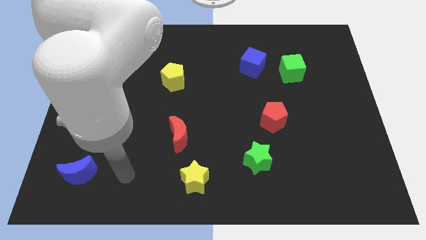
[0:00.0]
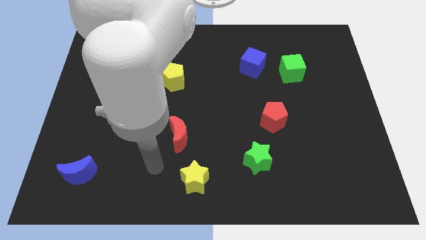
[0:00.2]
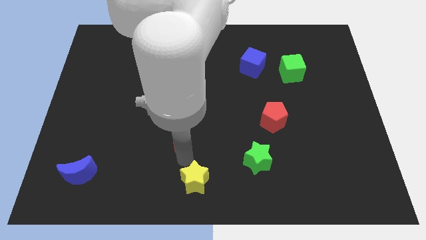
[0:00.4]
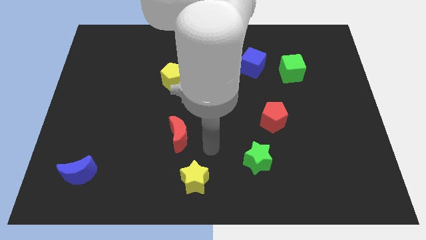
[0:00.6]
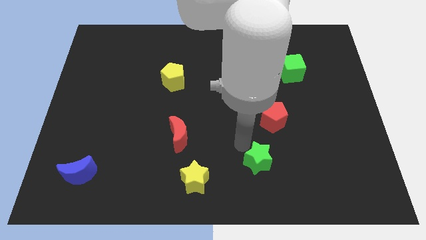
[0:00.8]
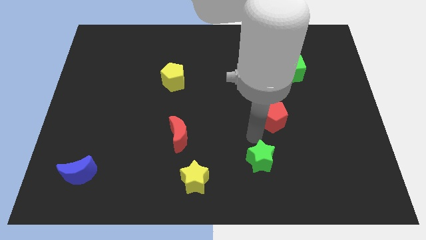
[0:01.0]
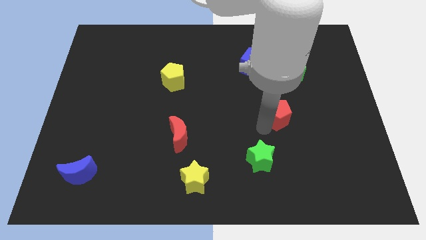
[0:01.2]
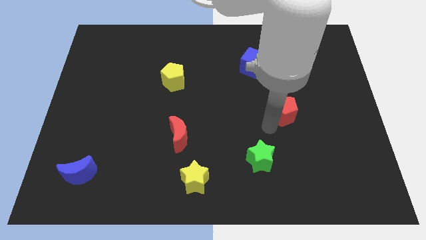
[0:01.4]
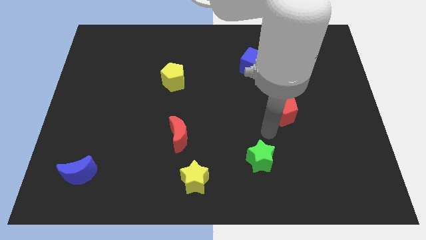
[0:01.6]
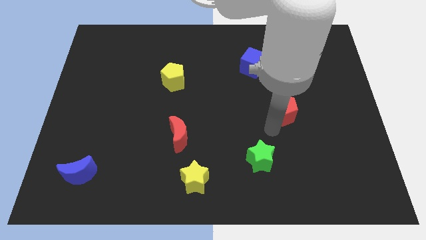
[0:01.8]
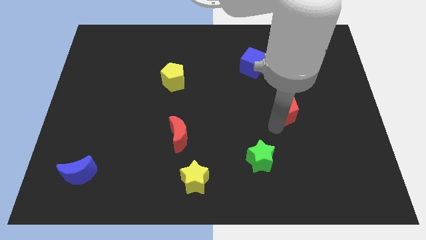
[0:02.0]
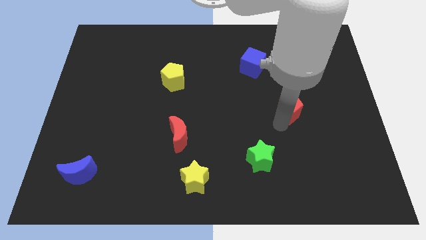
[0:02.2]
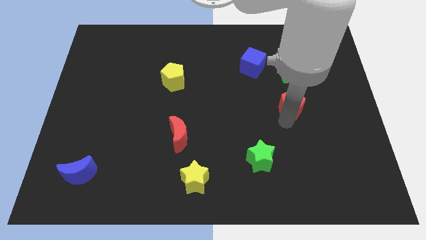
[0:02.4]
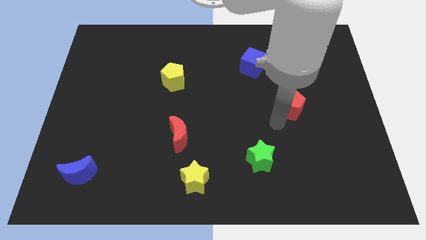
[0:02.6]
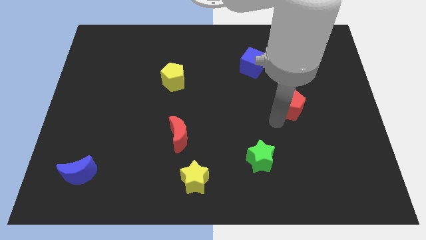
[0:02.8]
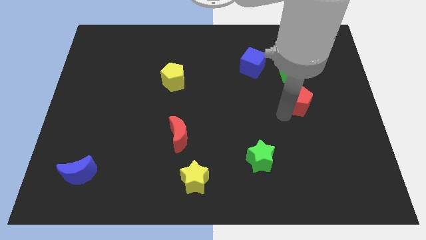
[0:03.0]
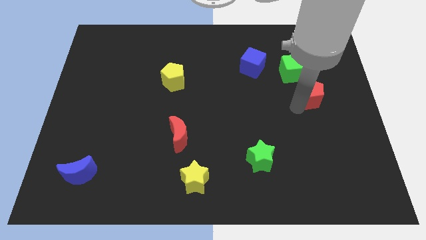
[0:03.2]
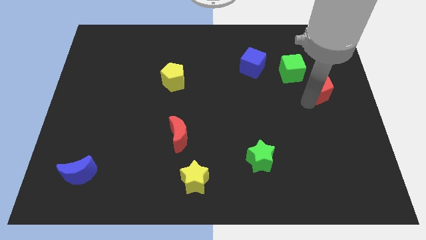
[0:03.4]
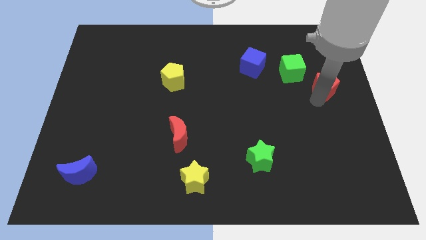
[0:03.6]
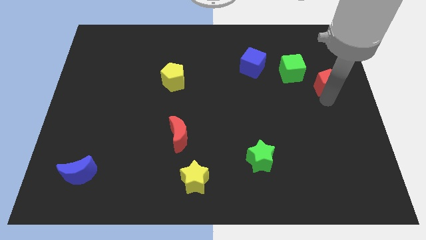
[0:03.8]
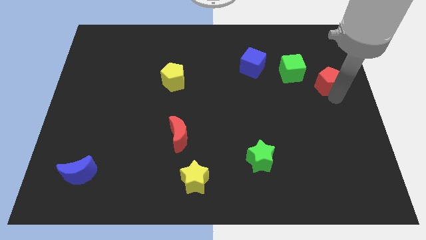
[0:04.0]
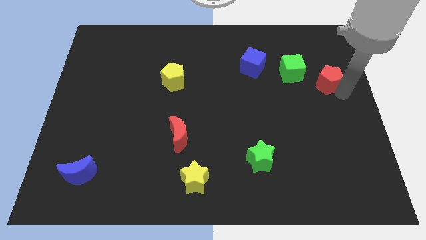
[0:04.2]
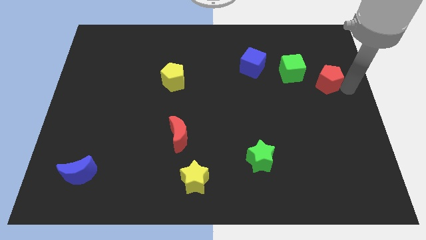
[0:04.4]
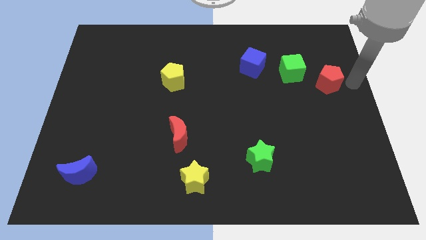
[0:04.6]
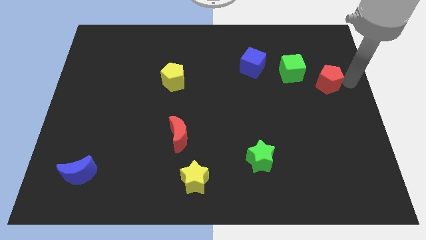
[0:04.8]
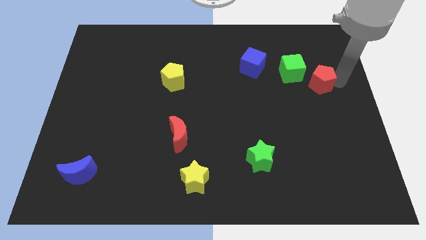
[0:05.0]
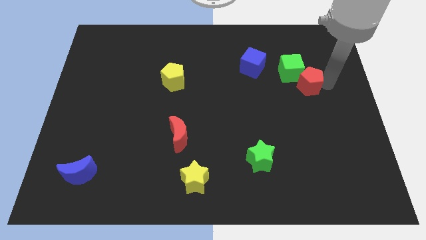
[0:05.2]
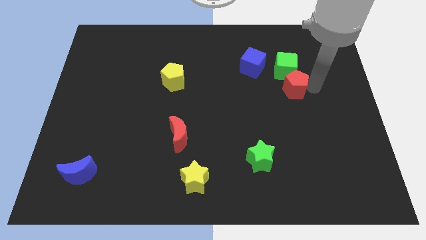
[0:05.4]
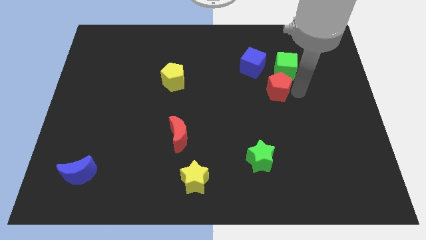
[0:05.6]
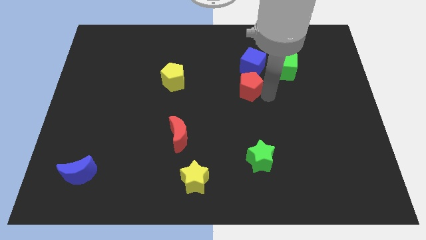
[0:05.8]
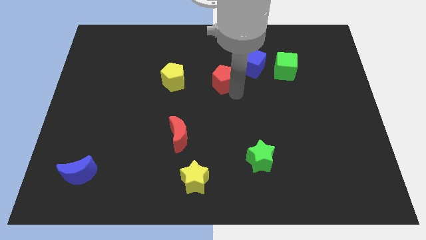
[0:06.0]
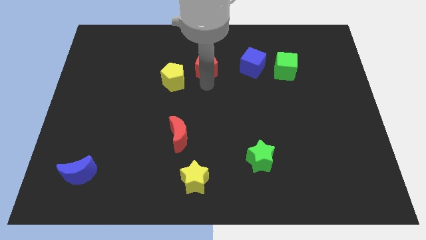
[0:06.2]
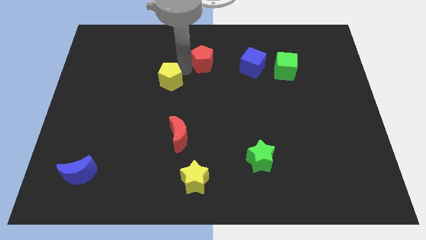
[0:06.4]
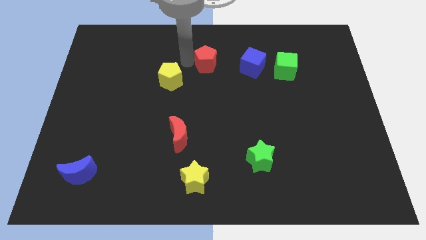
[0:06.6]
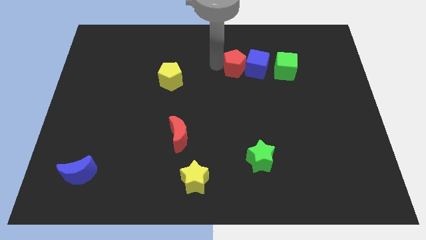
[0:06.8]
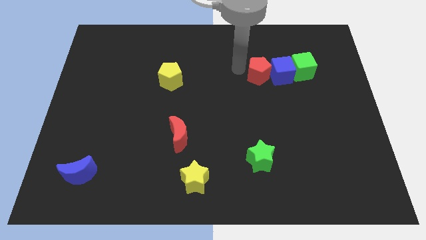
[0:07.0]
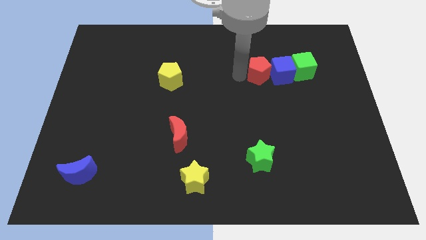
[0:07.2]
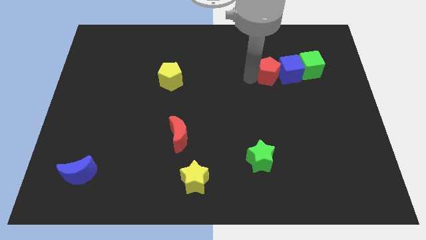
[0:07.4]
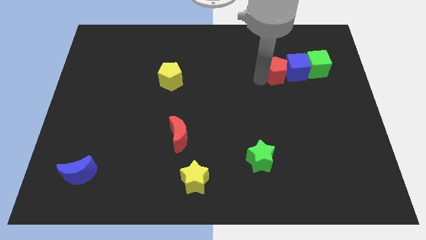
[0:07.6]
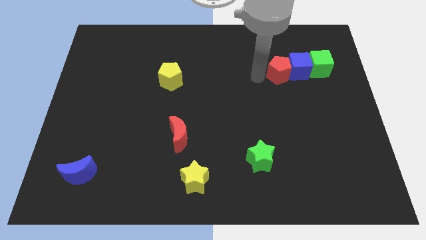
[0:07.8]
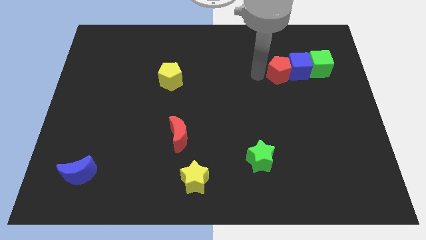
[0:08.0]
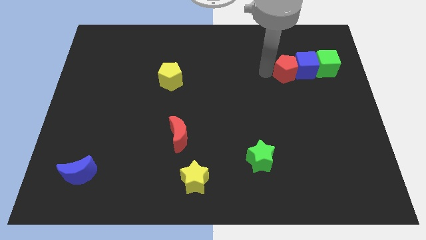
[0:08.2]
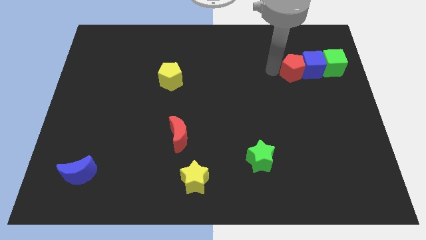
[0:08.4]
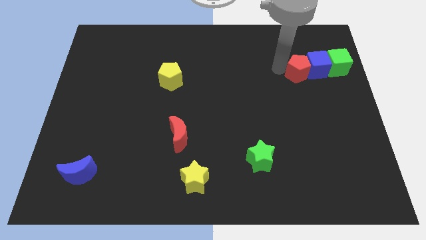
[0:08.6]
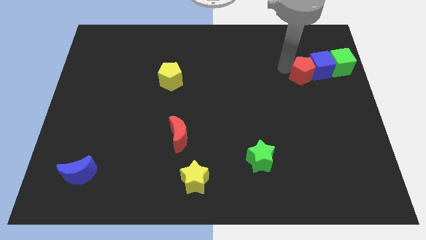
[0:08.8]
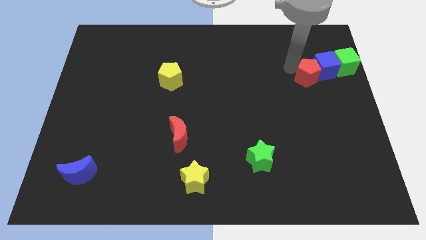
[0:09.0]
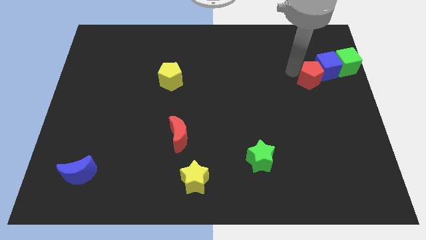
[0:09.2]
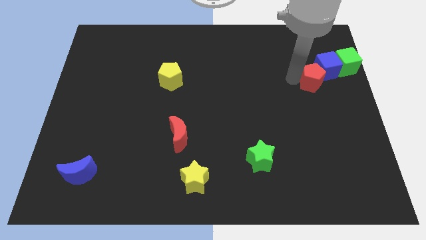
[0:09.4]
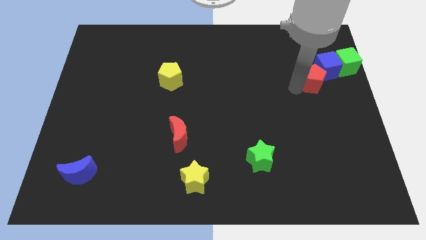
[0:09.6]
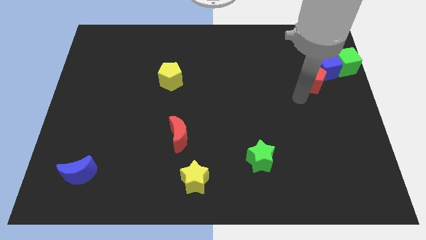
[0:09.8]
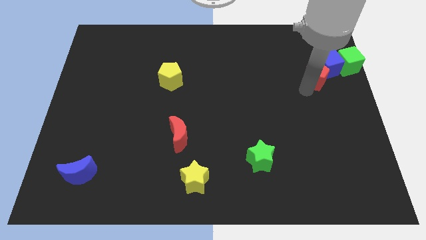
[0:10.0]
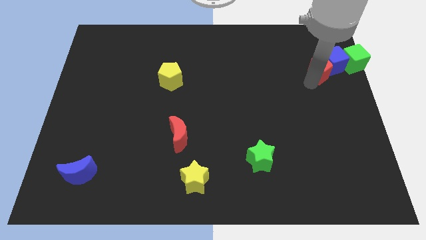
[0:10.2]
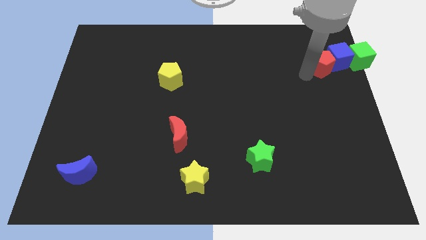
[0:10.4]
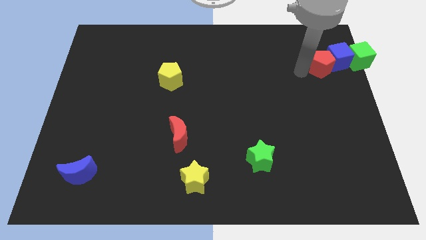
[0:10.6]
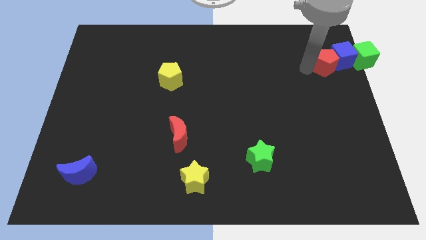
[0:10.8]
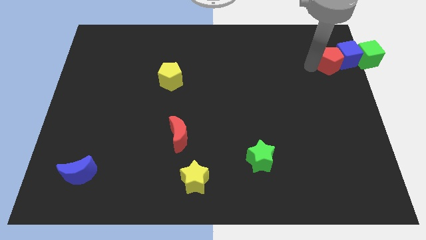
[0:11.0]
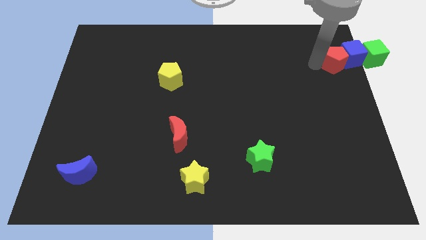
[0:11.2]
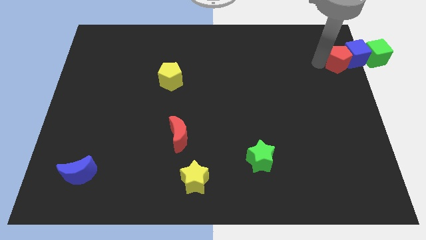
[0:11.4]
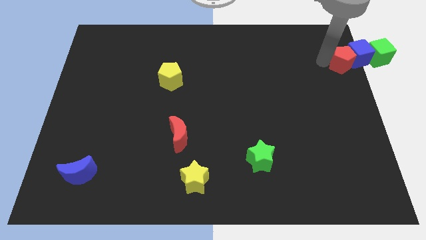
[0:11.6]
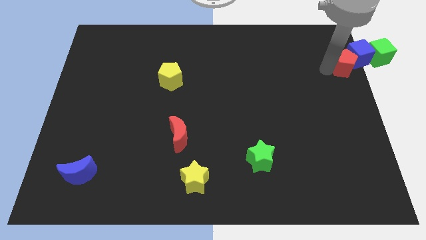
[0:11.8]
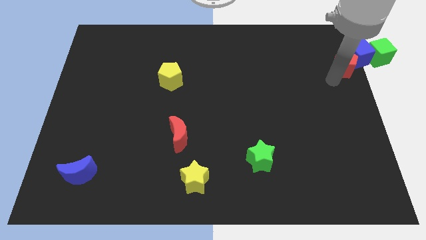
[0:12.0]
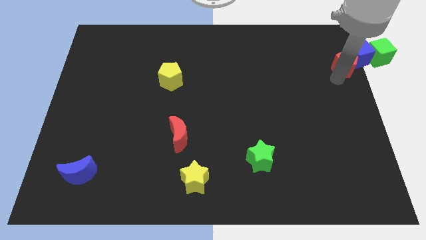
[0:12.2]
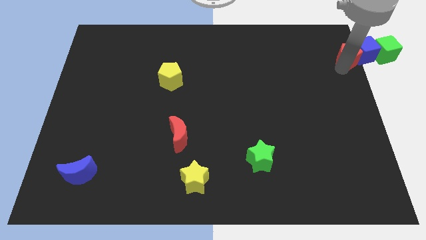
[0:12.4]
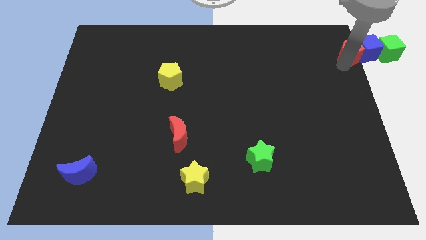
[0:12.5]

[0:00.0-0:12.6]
put the red pentagon to the top right
